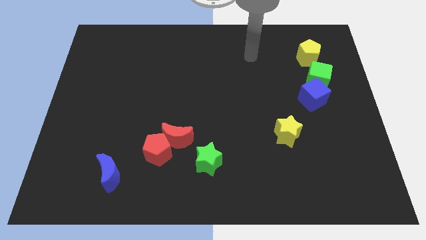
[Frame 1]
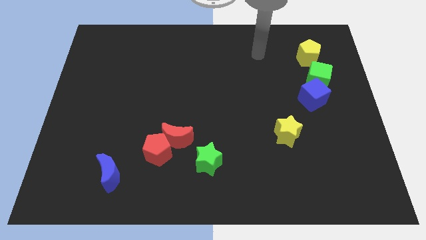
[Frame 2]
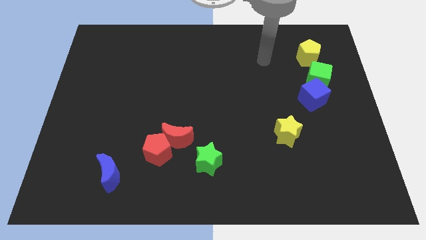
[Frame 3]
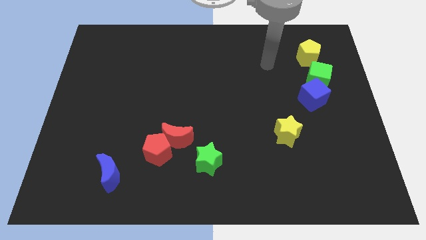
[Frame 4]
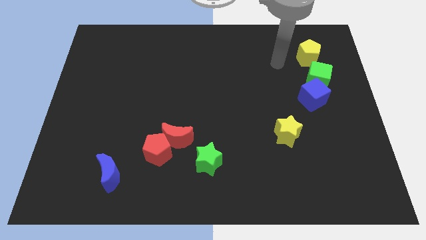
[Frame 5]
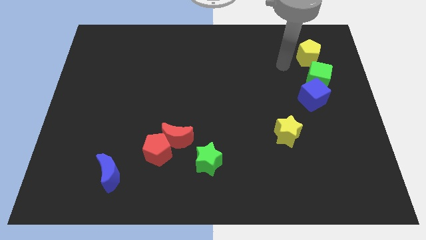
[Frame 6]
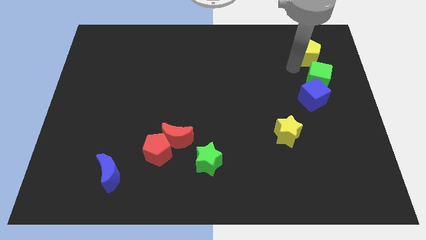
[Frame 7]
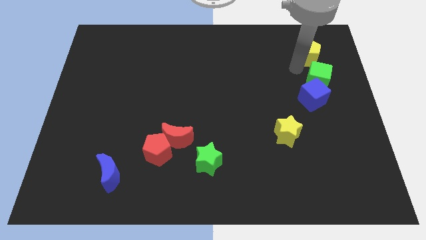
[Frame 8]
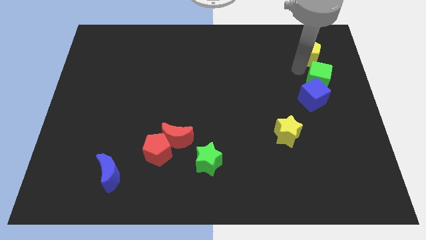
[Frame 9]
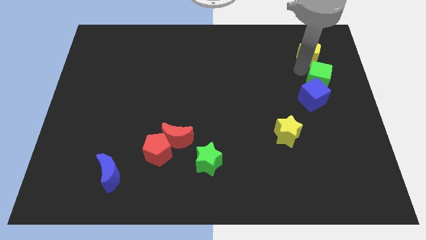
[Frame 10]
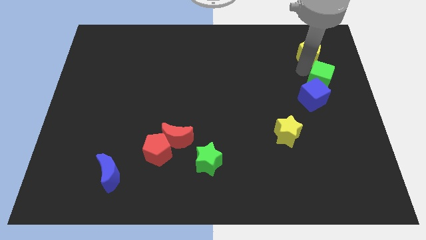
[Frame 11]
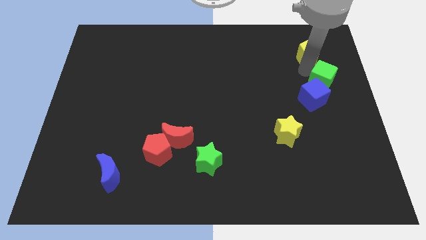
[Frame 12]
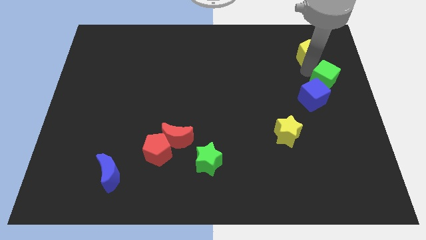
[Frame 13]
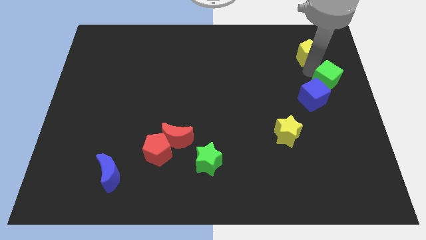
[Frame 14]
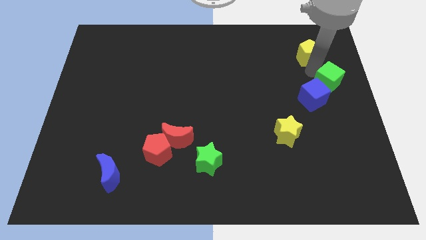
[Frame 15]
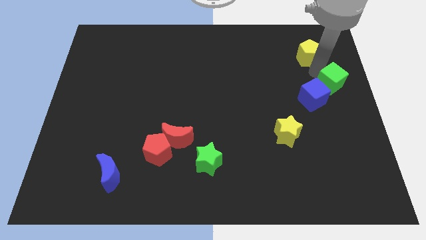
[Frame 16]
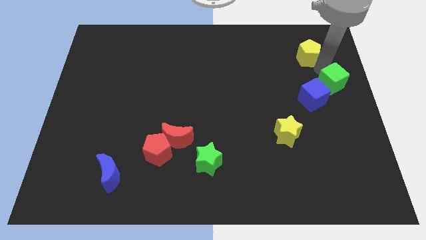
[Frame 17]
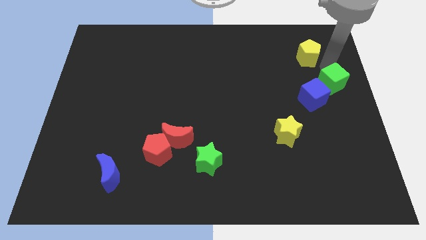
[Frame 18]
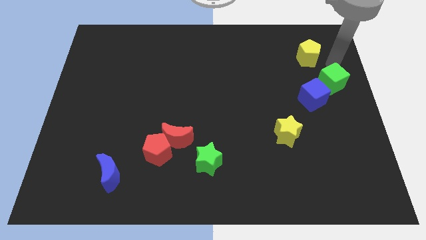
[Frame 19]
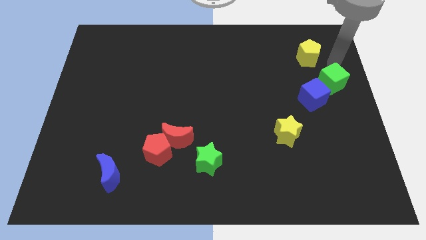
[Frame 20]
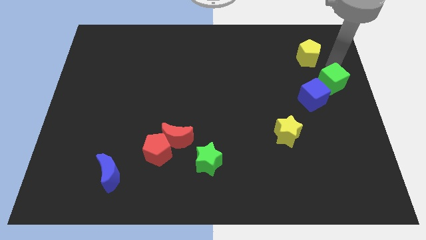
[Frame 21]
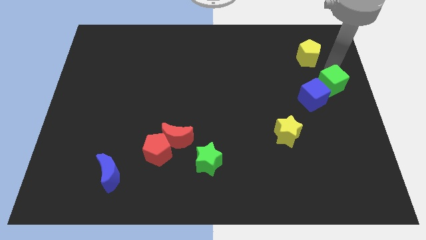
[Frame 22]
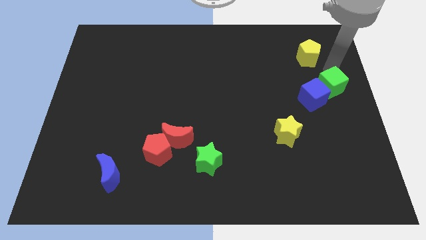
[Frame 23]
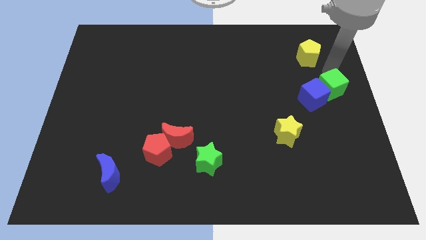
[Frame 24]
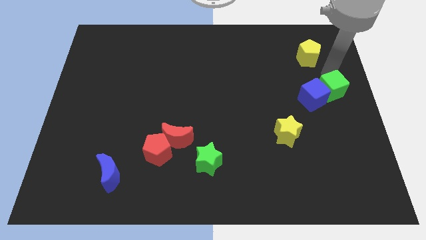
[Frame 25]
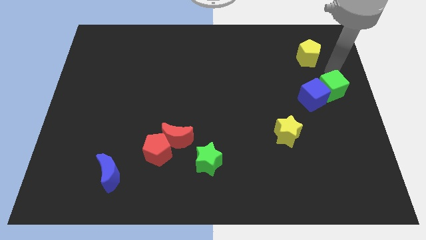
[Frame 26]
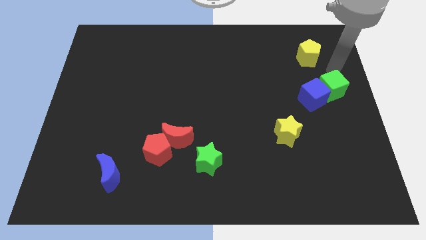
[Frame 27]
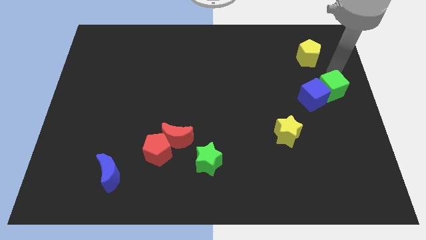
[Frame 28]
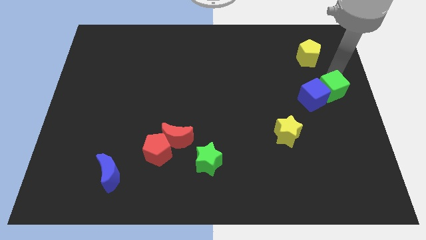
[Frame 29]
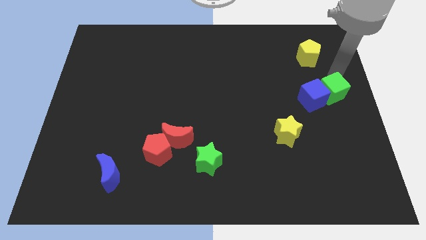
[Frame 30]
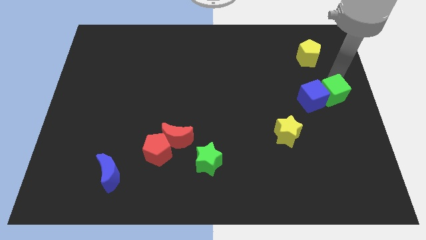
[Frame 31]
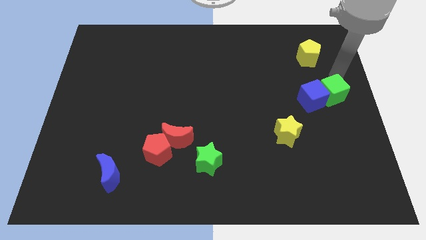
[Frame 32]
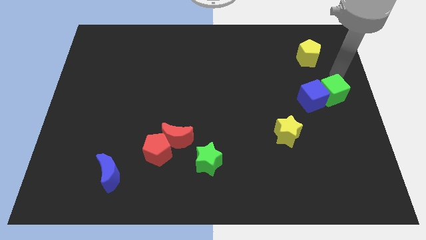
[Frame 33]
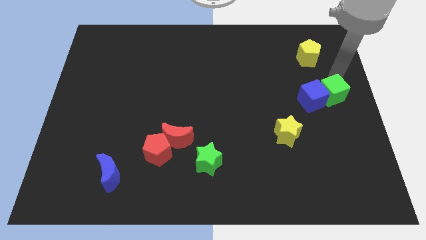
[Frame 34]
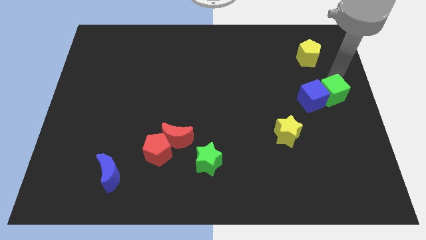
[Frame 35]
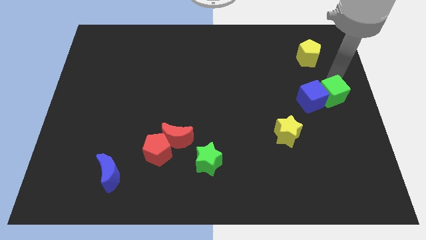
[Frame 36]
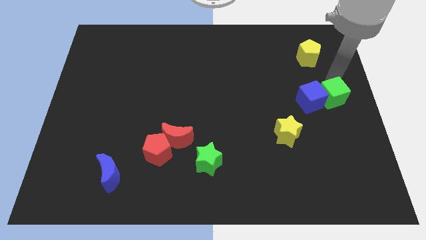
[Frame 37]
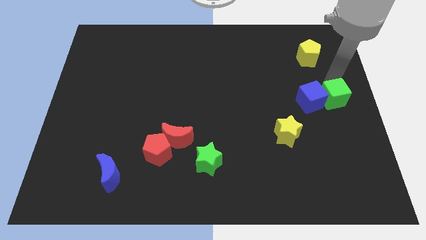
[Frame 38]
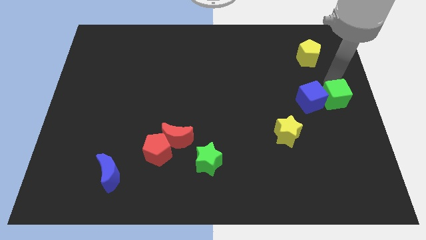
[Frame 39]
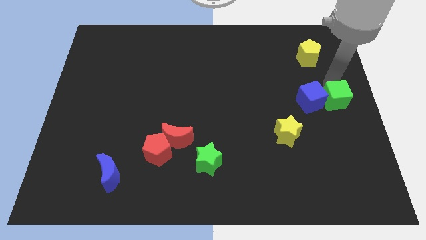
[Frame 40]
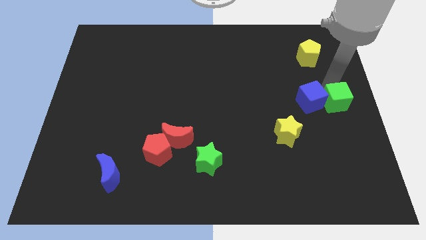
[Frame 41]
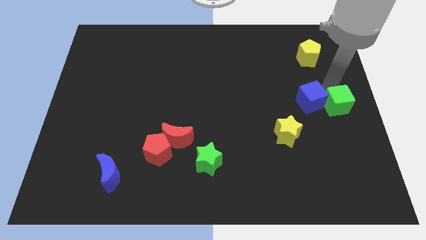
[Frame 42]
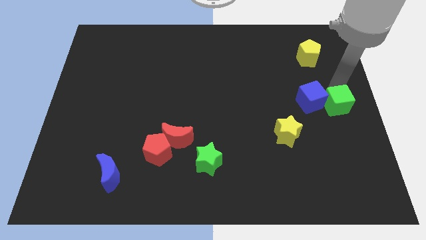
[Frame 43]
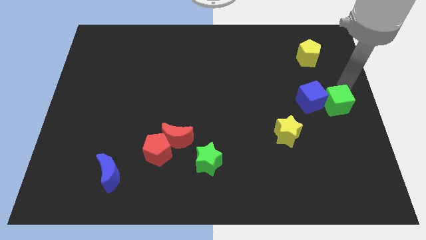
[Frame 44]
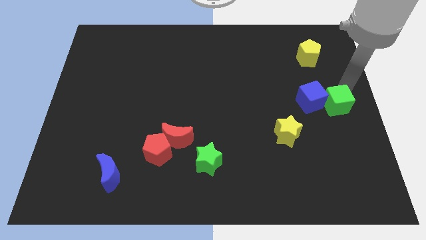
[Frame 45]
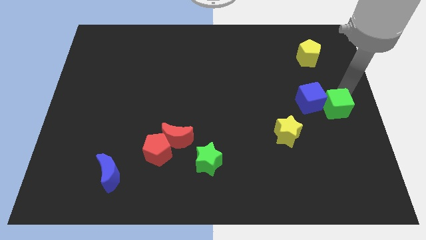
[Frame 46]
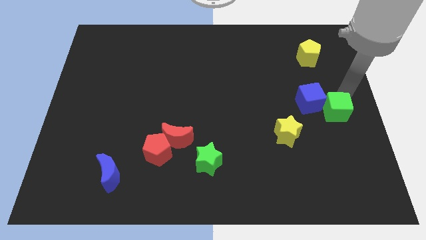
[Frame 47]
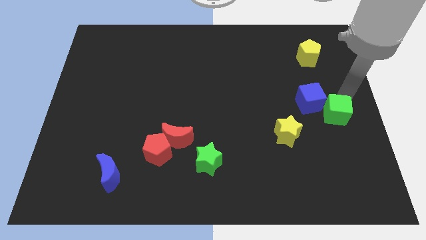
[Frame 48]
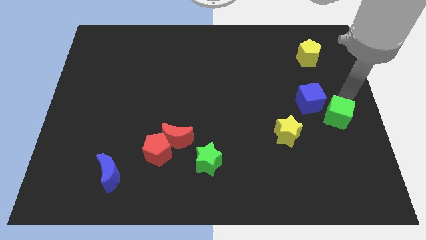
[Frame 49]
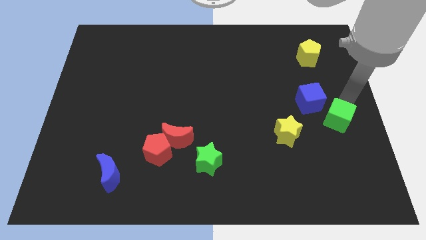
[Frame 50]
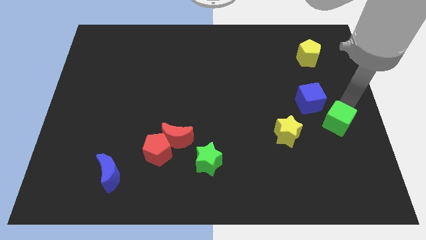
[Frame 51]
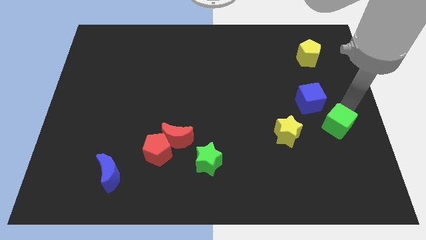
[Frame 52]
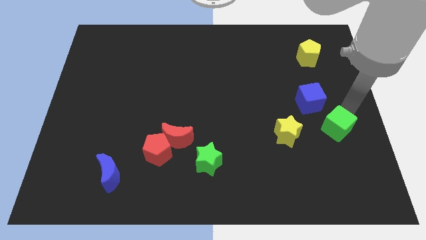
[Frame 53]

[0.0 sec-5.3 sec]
push the green cube to the bottom side of the blue cube

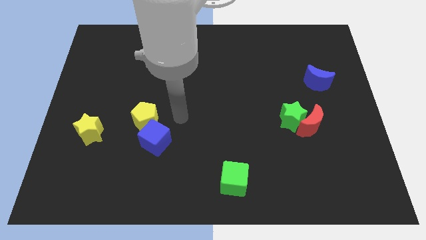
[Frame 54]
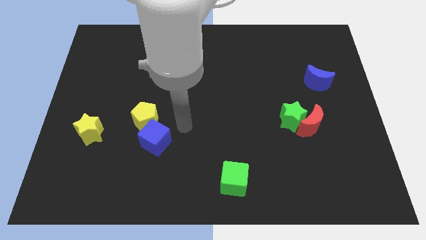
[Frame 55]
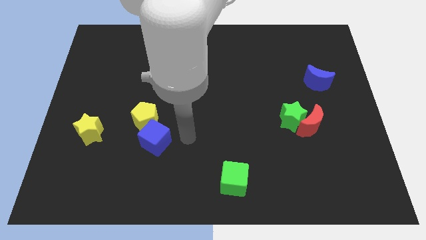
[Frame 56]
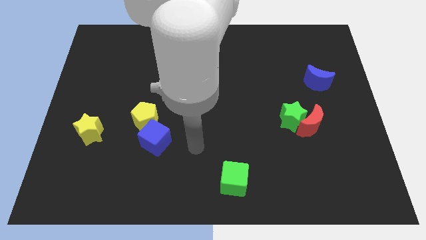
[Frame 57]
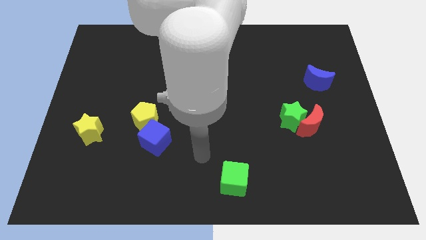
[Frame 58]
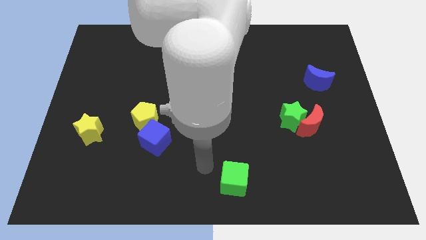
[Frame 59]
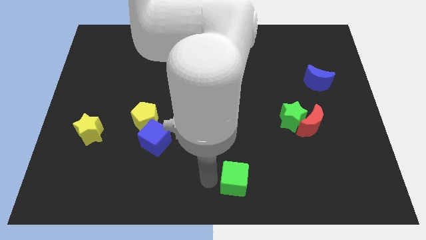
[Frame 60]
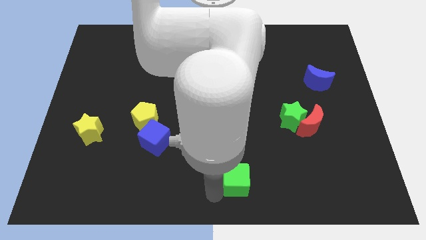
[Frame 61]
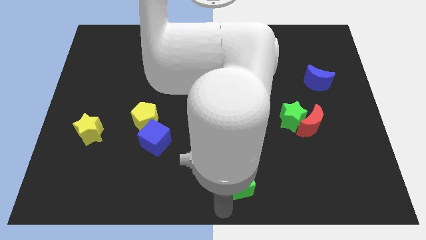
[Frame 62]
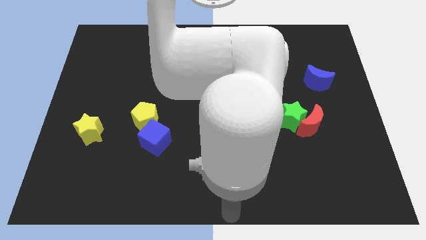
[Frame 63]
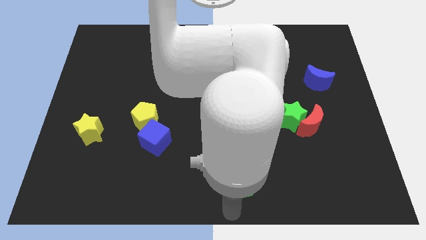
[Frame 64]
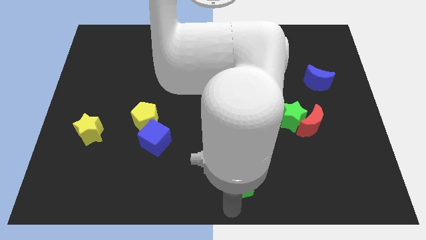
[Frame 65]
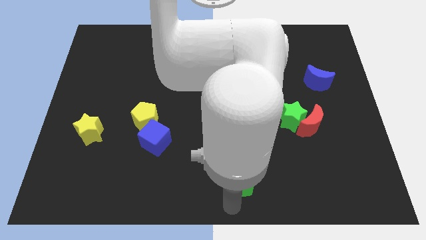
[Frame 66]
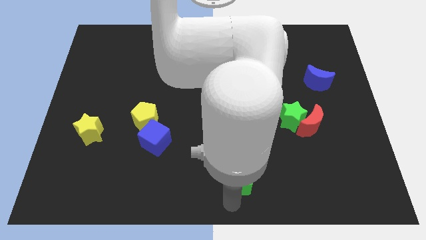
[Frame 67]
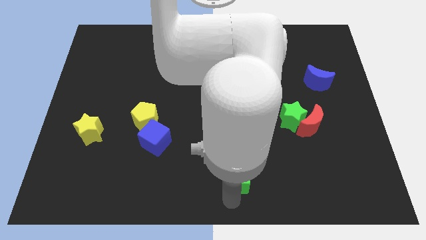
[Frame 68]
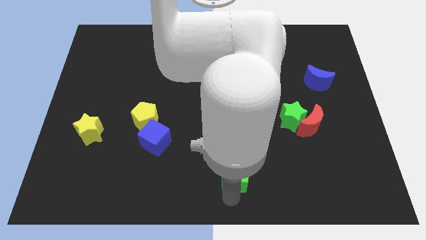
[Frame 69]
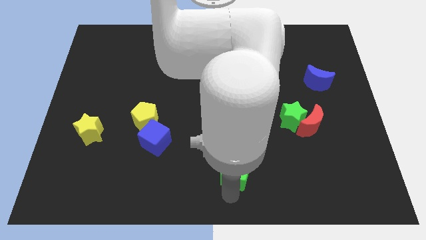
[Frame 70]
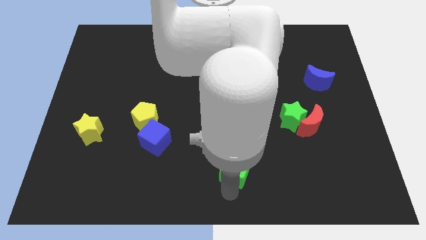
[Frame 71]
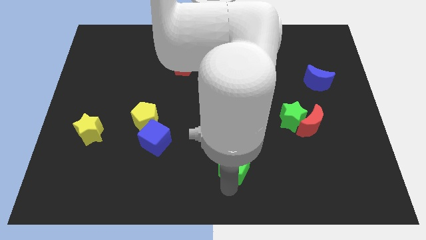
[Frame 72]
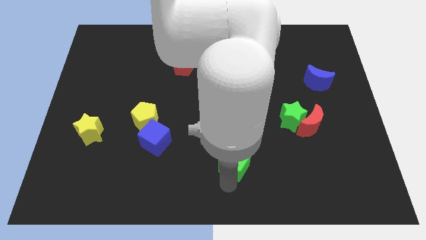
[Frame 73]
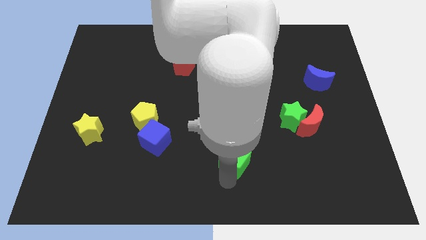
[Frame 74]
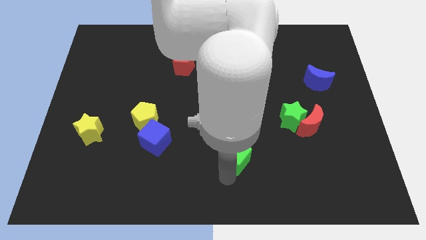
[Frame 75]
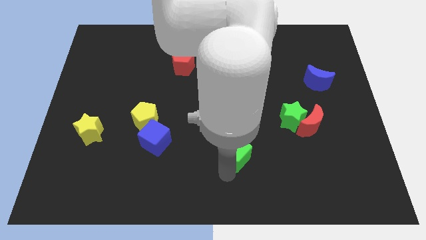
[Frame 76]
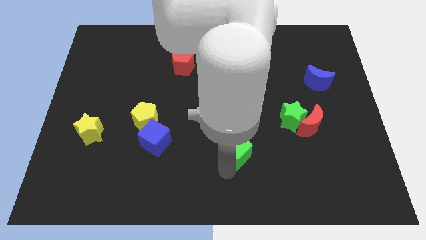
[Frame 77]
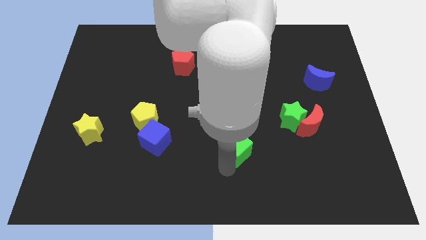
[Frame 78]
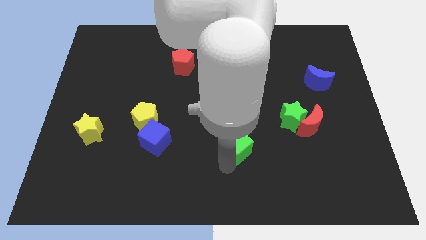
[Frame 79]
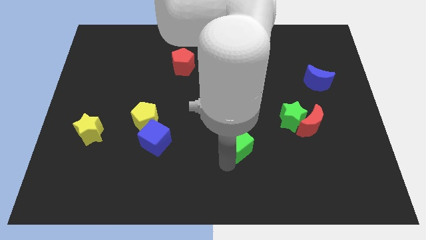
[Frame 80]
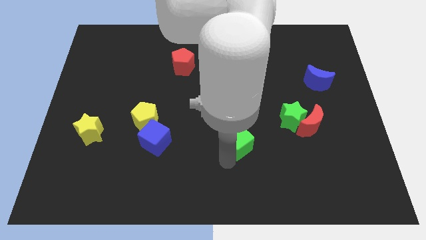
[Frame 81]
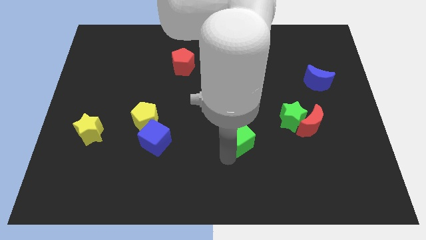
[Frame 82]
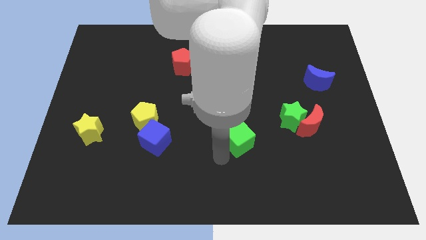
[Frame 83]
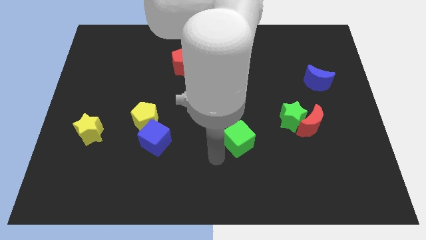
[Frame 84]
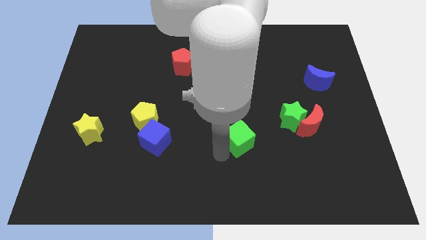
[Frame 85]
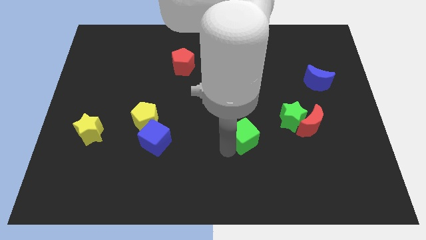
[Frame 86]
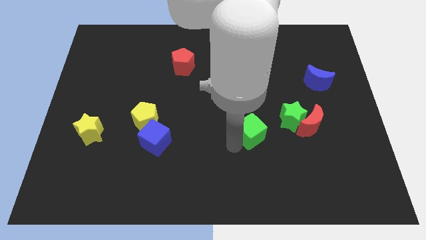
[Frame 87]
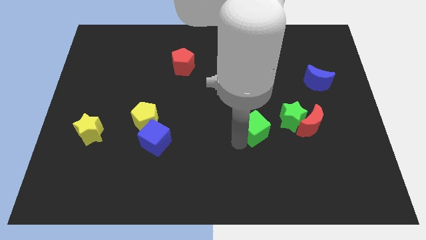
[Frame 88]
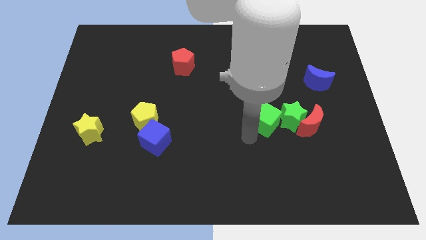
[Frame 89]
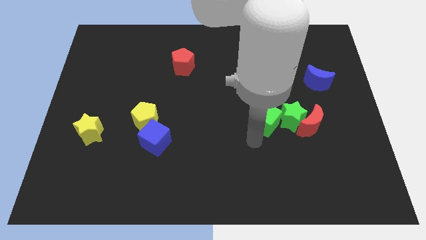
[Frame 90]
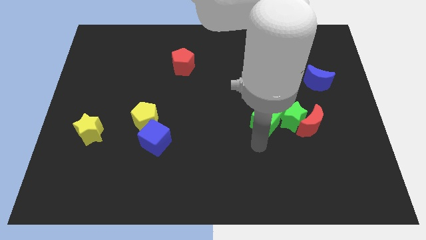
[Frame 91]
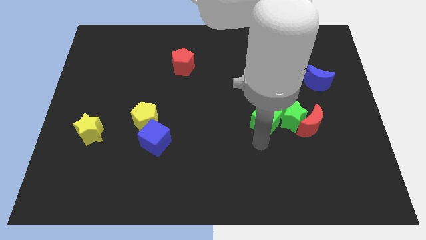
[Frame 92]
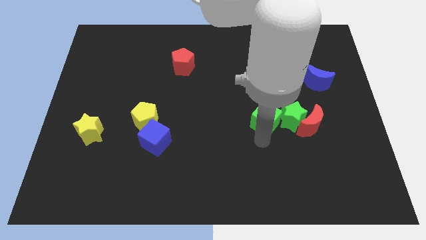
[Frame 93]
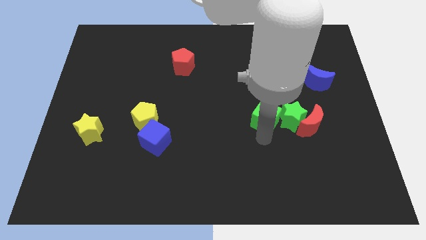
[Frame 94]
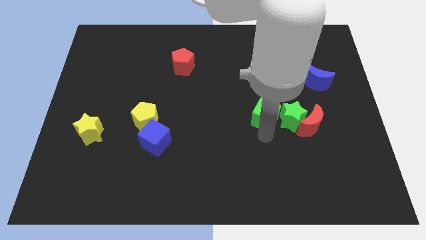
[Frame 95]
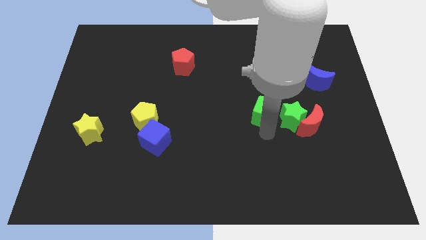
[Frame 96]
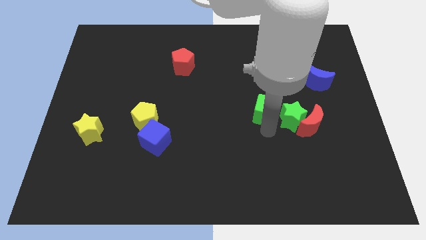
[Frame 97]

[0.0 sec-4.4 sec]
move the green cube to the top left side of the red moon
